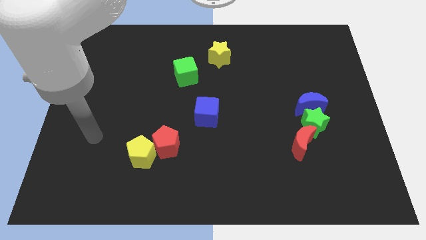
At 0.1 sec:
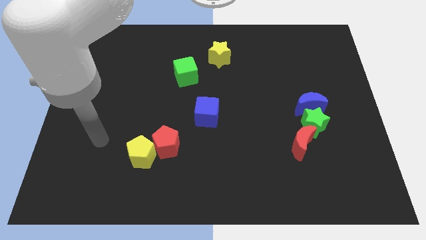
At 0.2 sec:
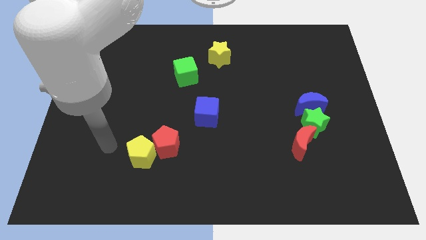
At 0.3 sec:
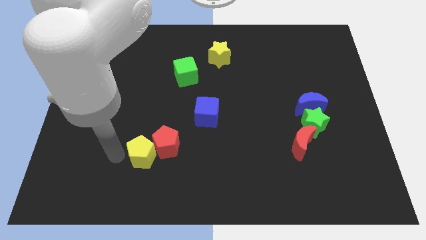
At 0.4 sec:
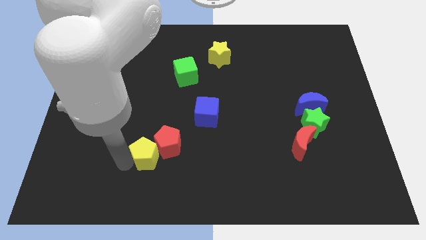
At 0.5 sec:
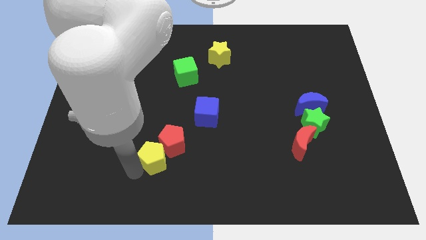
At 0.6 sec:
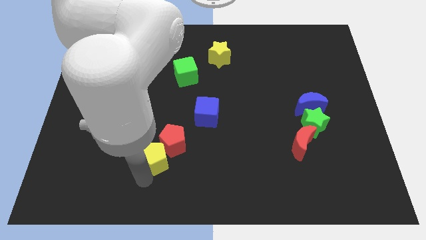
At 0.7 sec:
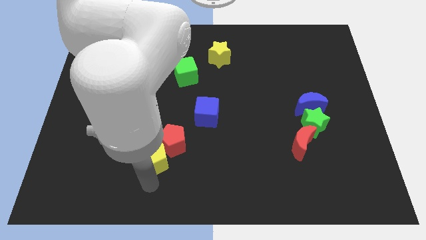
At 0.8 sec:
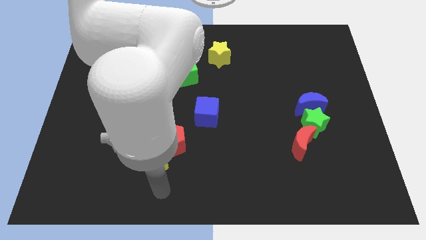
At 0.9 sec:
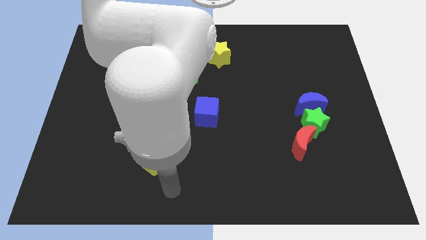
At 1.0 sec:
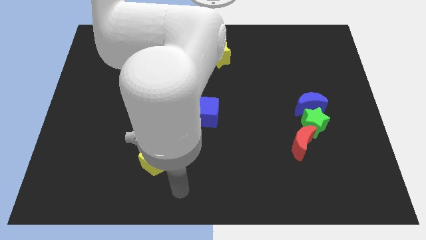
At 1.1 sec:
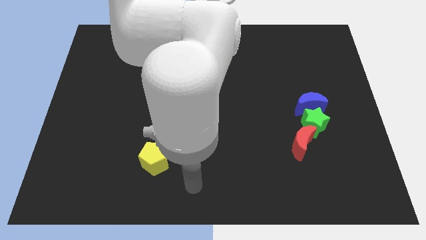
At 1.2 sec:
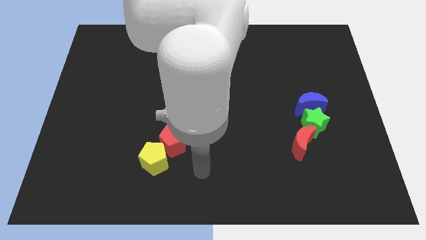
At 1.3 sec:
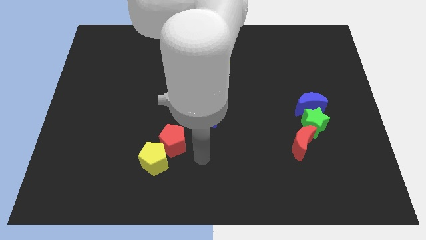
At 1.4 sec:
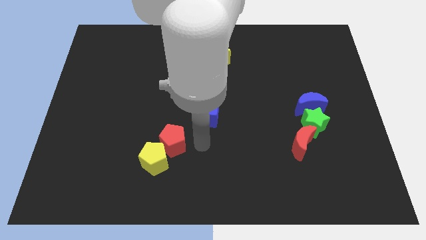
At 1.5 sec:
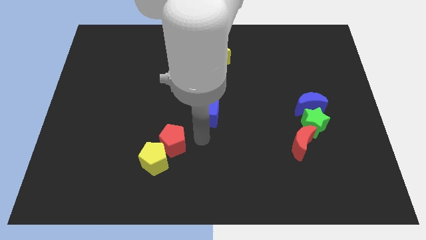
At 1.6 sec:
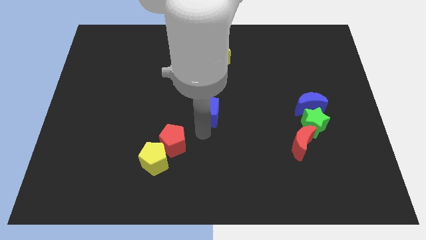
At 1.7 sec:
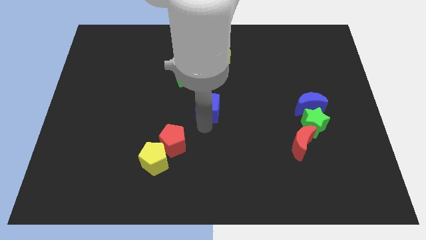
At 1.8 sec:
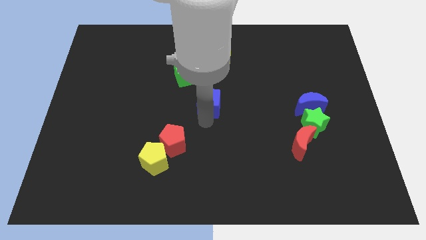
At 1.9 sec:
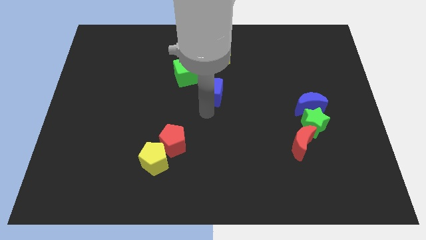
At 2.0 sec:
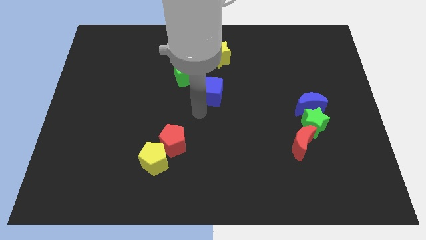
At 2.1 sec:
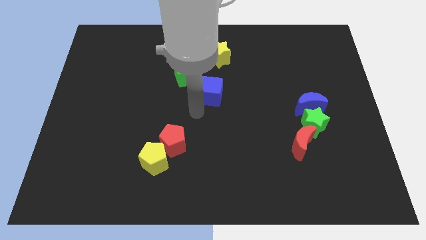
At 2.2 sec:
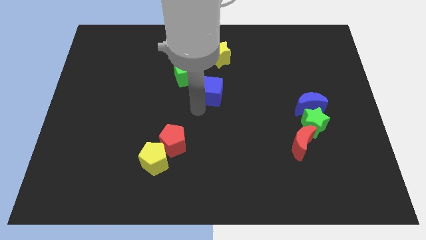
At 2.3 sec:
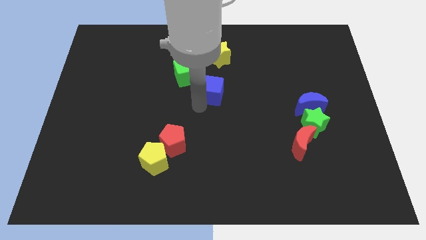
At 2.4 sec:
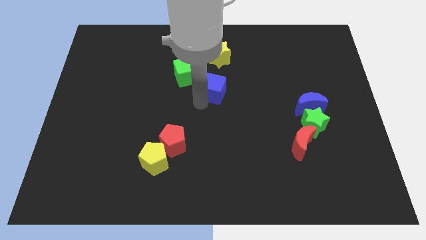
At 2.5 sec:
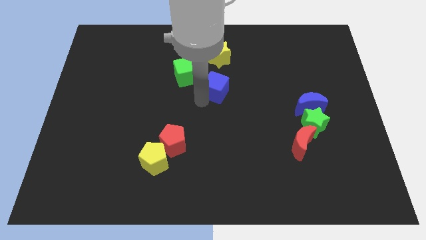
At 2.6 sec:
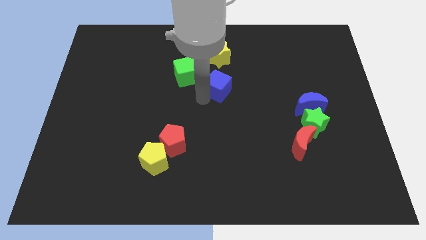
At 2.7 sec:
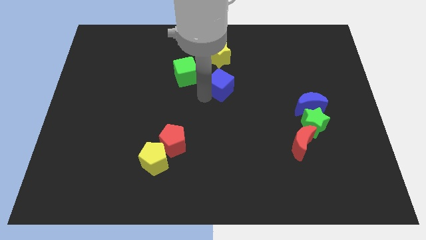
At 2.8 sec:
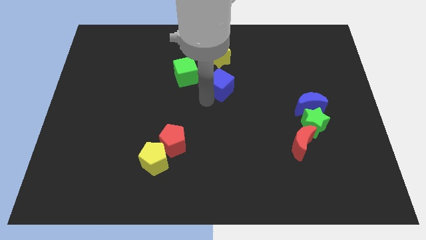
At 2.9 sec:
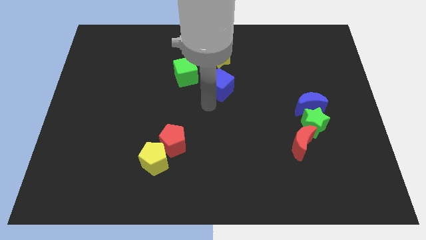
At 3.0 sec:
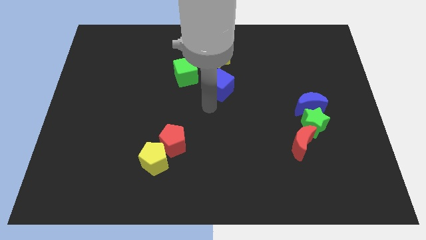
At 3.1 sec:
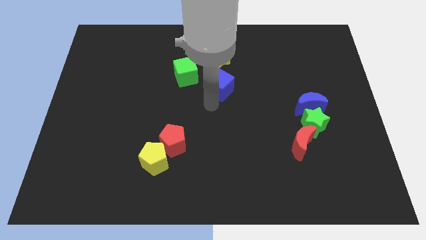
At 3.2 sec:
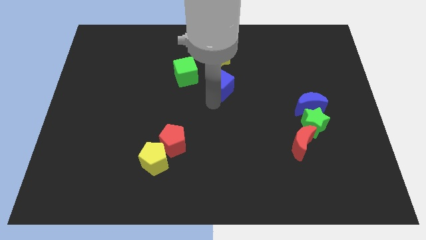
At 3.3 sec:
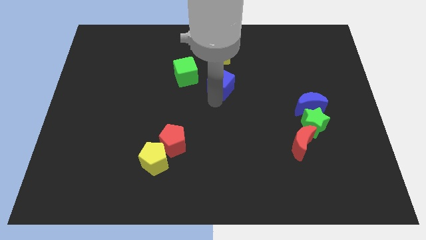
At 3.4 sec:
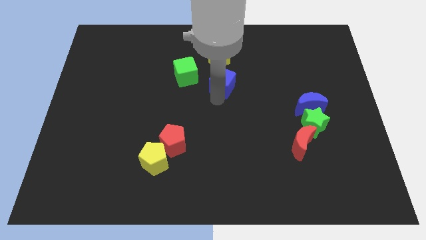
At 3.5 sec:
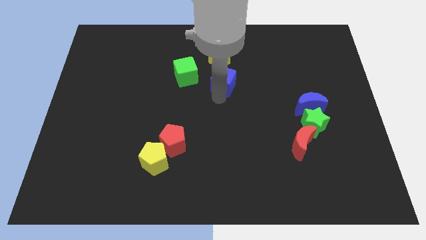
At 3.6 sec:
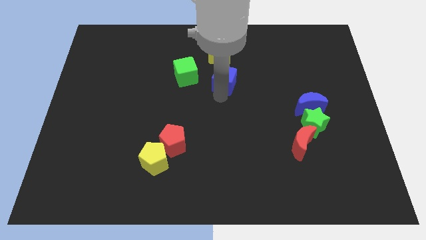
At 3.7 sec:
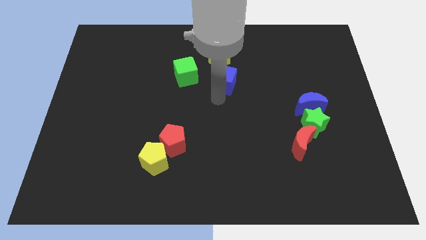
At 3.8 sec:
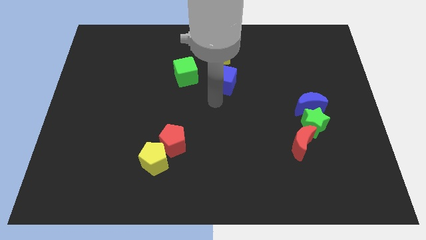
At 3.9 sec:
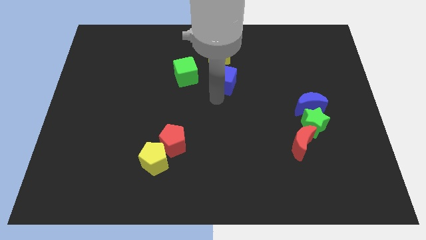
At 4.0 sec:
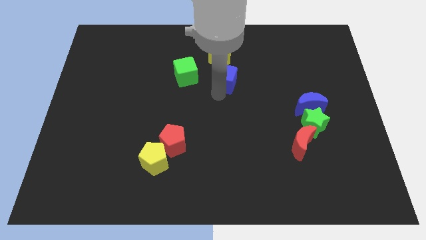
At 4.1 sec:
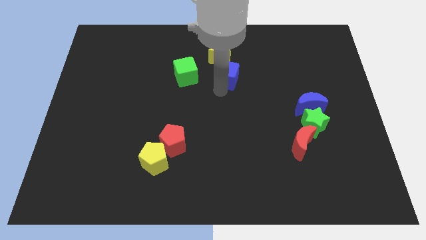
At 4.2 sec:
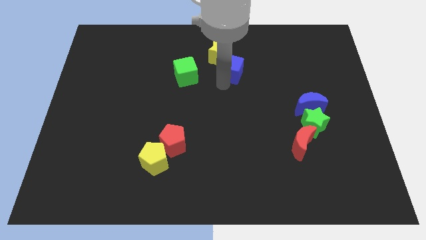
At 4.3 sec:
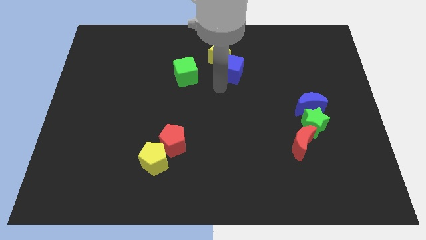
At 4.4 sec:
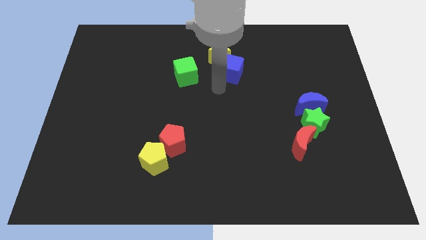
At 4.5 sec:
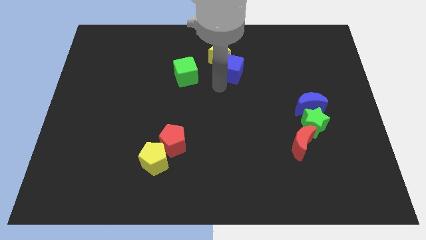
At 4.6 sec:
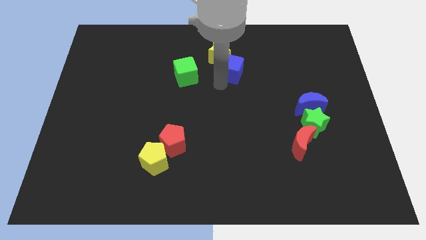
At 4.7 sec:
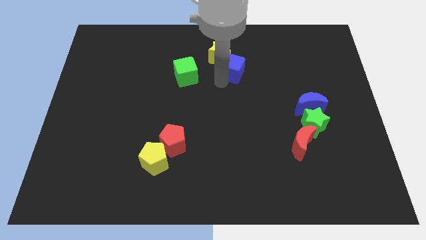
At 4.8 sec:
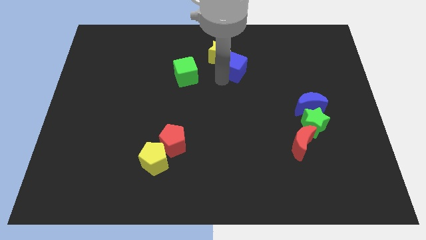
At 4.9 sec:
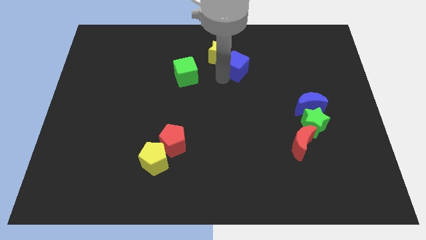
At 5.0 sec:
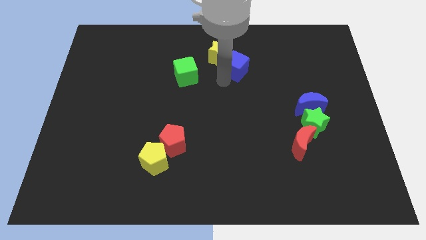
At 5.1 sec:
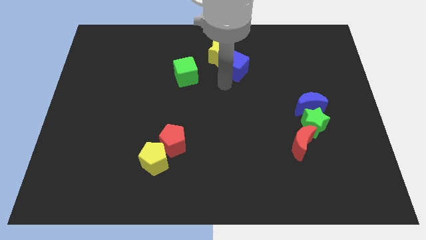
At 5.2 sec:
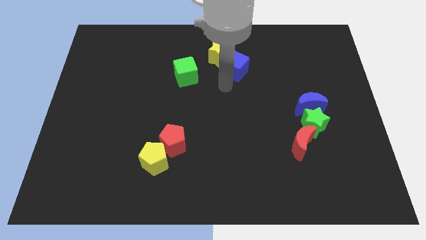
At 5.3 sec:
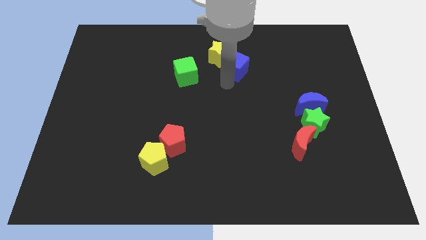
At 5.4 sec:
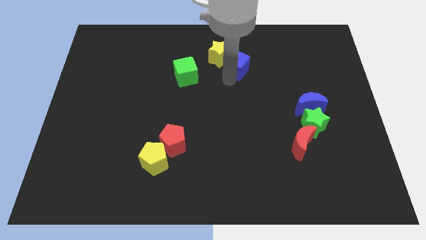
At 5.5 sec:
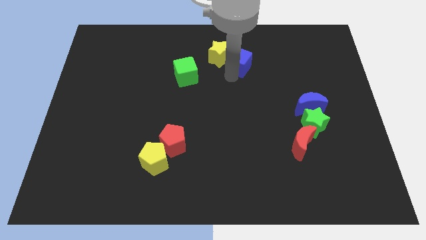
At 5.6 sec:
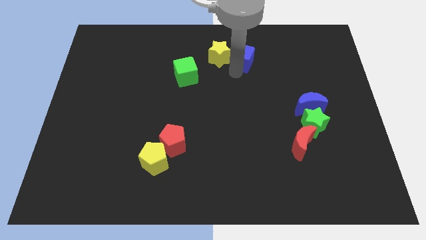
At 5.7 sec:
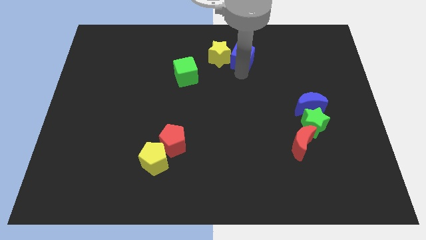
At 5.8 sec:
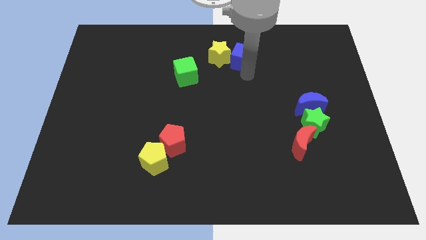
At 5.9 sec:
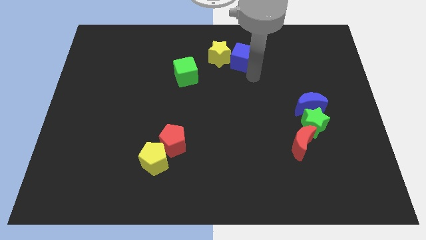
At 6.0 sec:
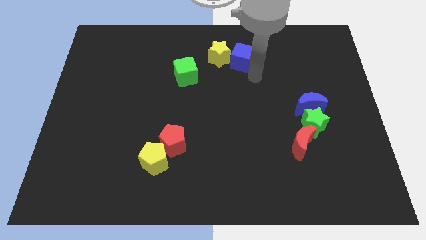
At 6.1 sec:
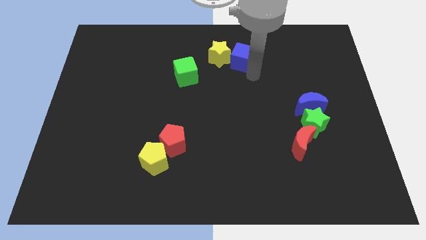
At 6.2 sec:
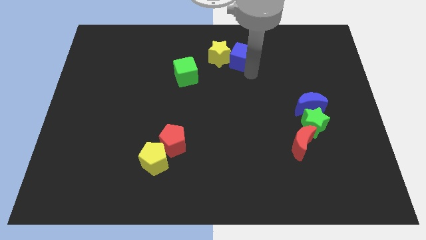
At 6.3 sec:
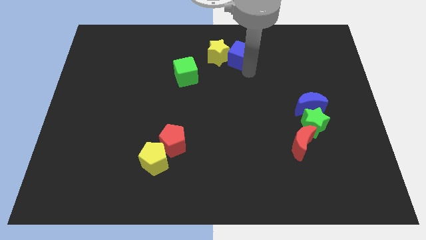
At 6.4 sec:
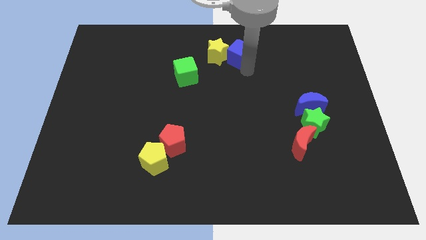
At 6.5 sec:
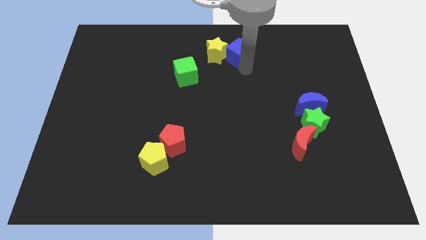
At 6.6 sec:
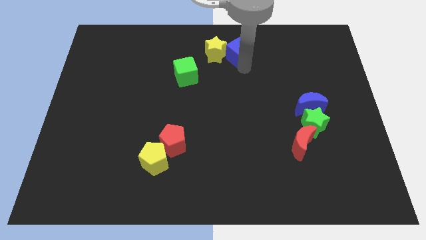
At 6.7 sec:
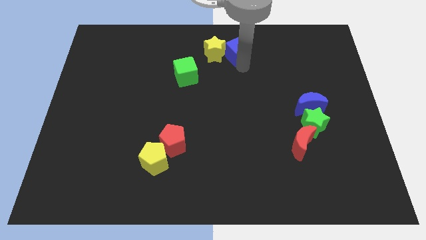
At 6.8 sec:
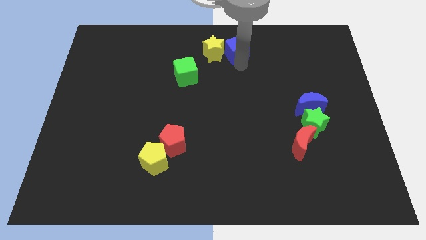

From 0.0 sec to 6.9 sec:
move the blue cube to the top side
